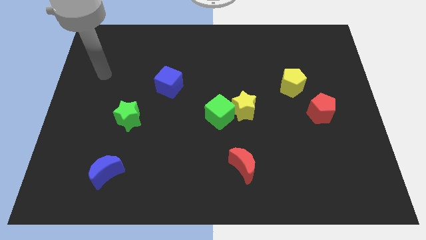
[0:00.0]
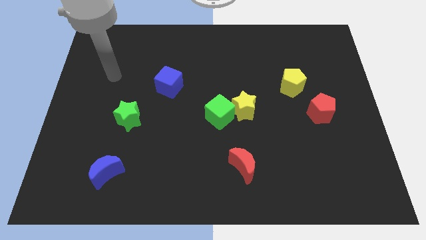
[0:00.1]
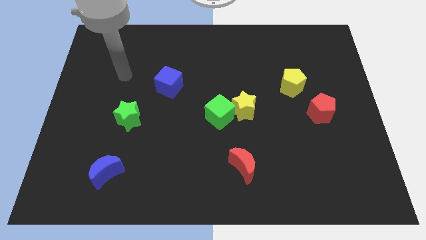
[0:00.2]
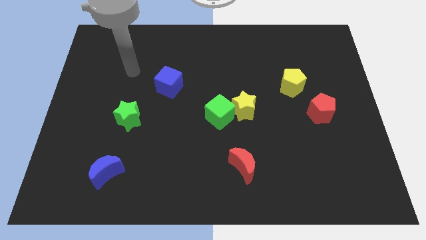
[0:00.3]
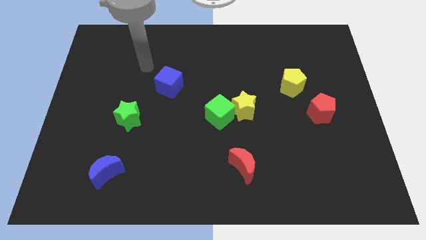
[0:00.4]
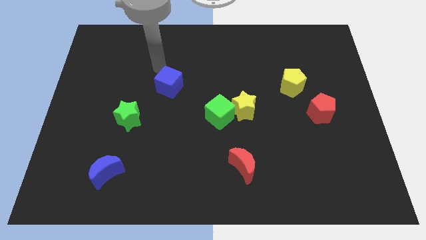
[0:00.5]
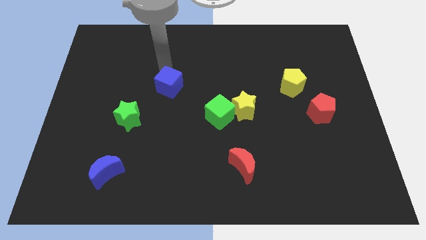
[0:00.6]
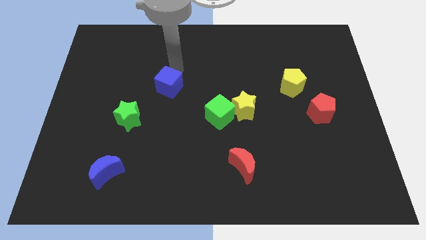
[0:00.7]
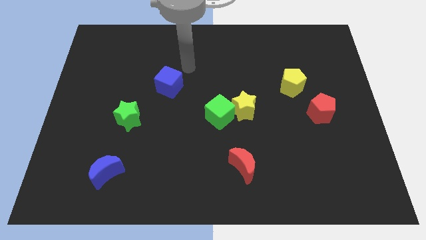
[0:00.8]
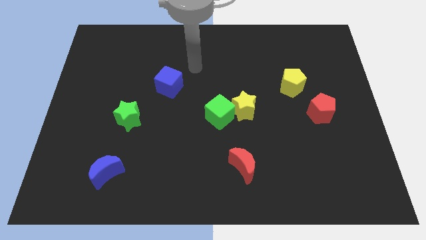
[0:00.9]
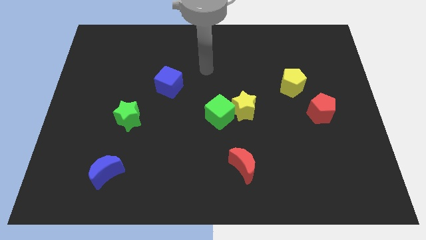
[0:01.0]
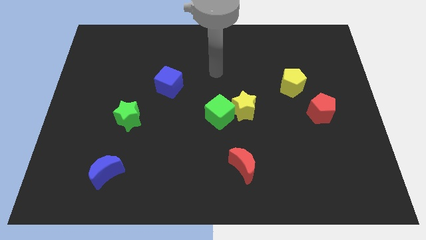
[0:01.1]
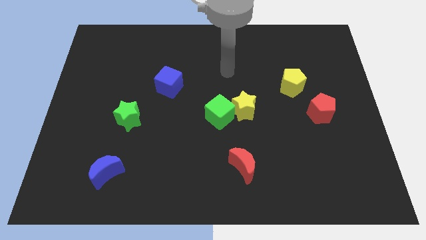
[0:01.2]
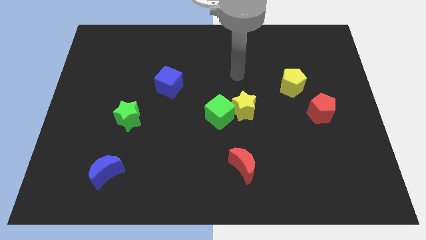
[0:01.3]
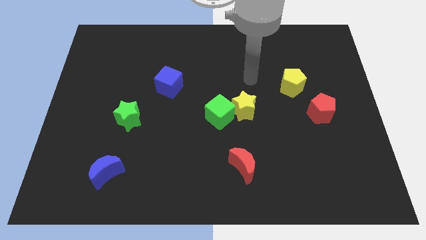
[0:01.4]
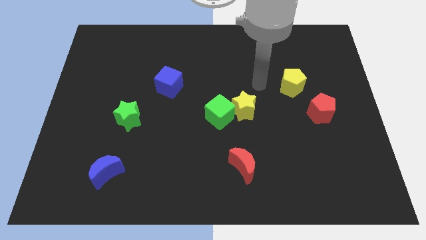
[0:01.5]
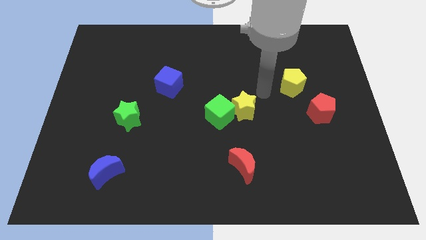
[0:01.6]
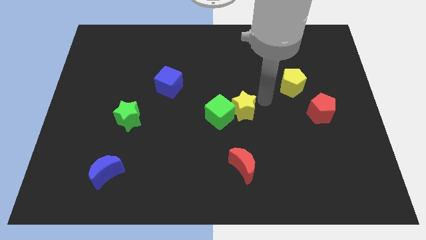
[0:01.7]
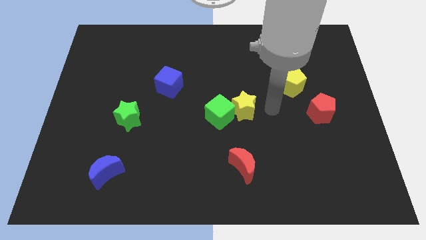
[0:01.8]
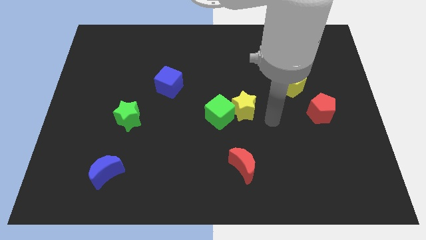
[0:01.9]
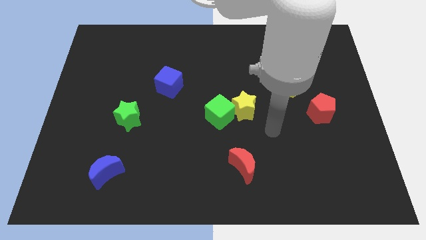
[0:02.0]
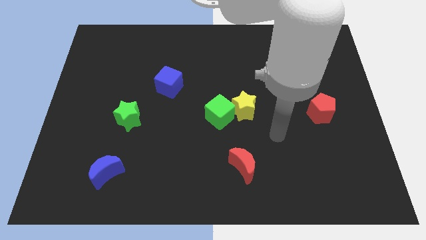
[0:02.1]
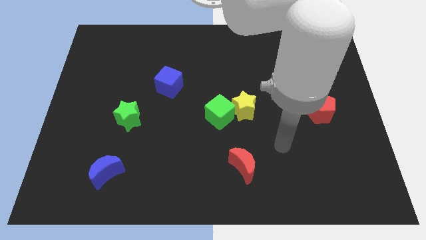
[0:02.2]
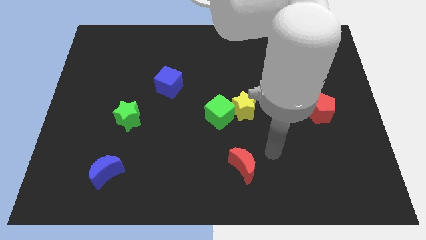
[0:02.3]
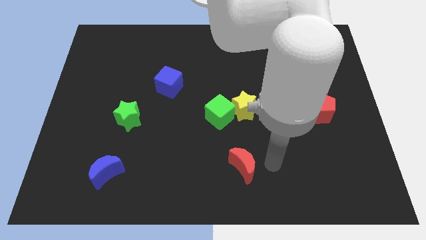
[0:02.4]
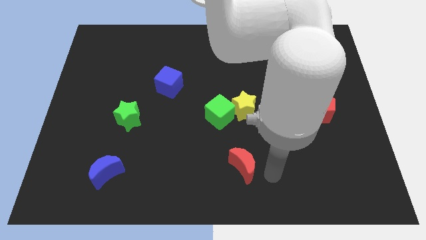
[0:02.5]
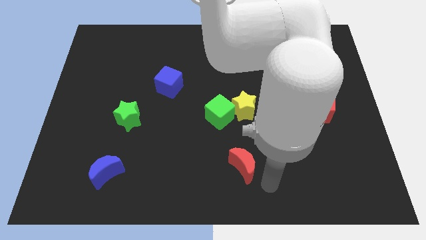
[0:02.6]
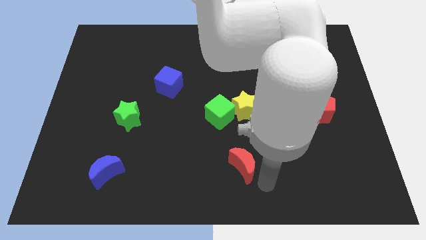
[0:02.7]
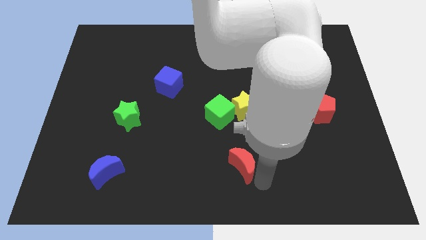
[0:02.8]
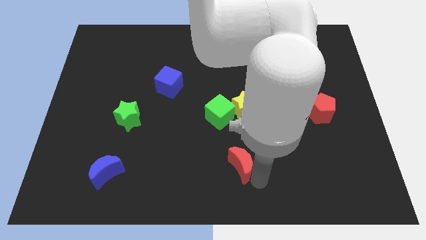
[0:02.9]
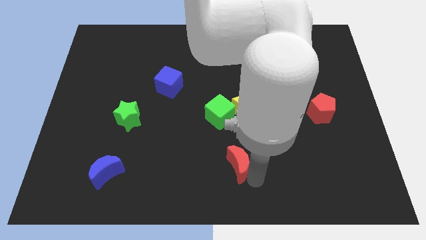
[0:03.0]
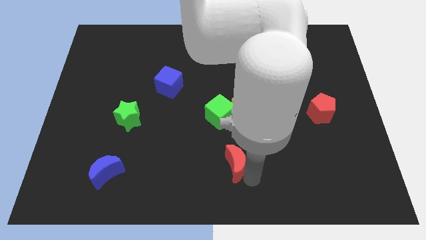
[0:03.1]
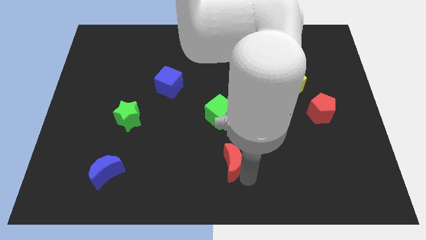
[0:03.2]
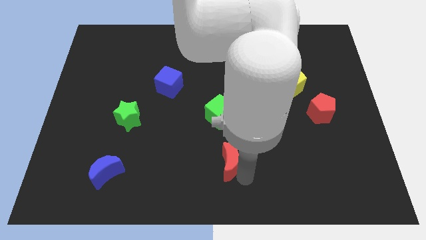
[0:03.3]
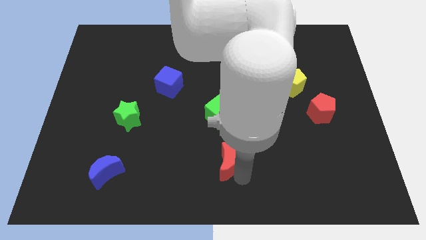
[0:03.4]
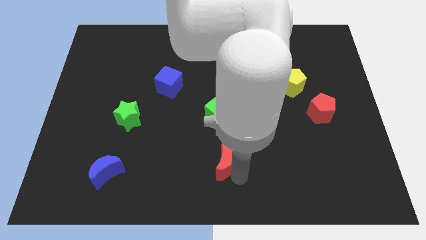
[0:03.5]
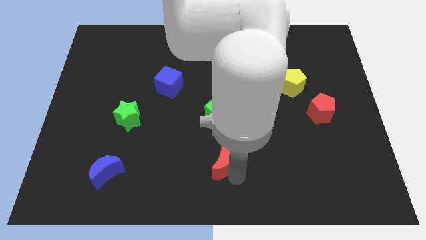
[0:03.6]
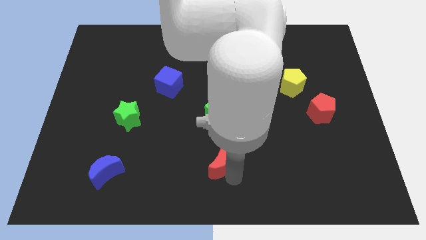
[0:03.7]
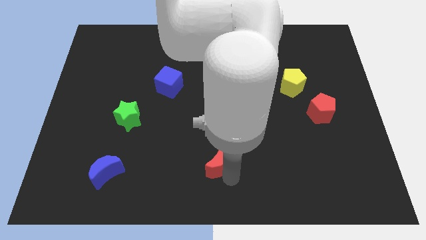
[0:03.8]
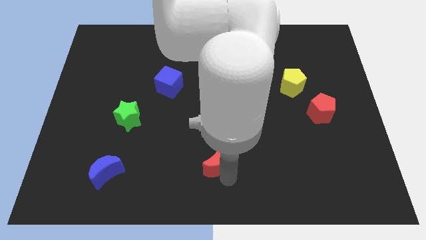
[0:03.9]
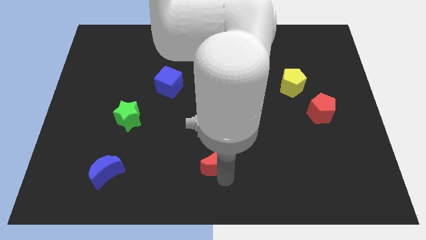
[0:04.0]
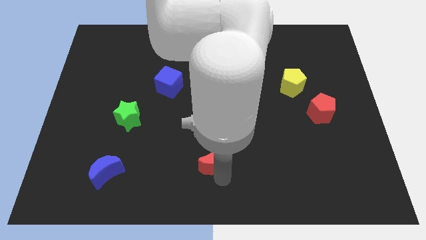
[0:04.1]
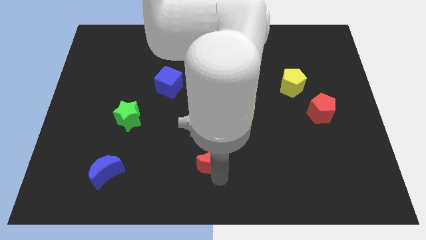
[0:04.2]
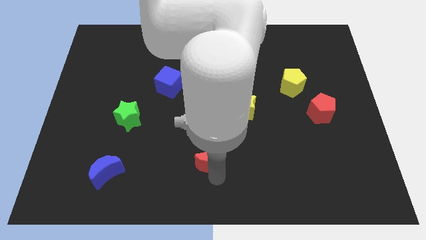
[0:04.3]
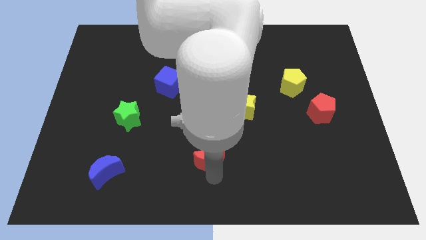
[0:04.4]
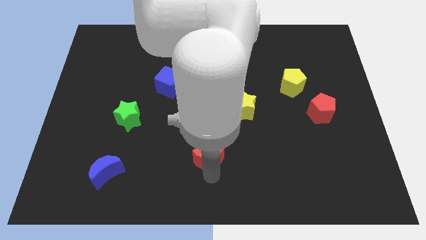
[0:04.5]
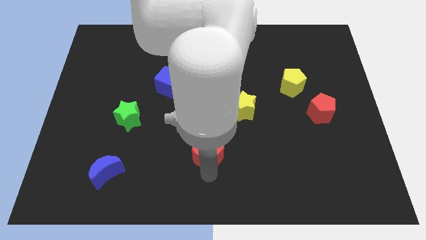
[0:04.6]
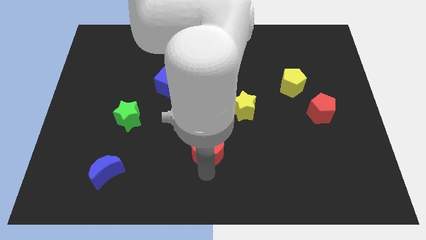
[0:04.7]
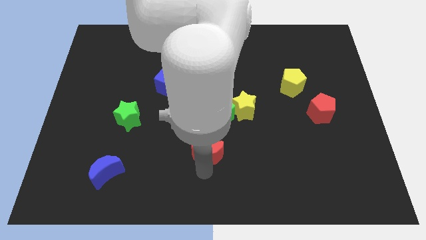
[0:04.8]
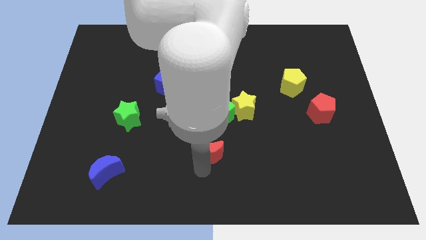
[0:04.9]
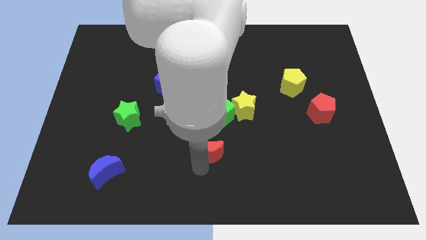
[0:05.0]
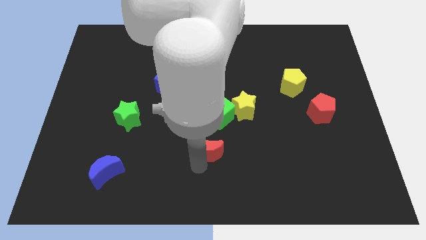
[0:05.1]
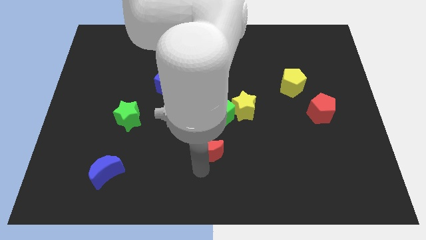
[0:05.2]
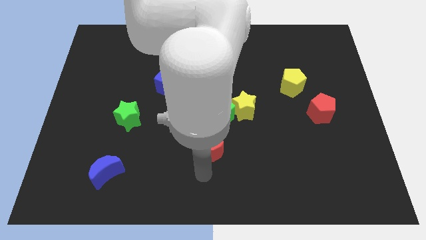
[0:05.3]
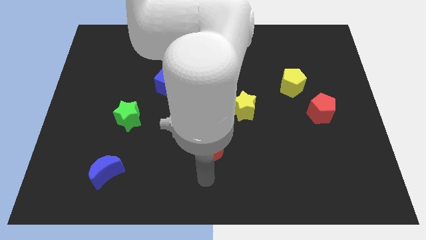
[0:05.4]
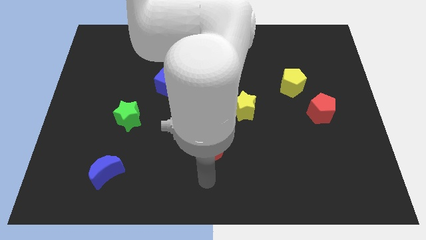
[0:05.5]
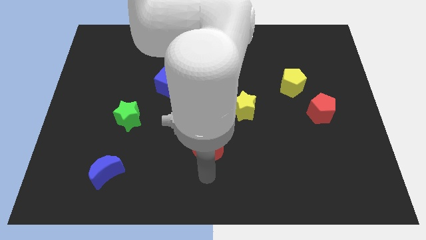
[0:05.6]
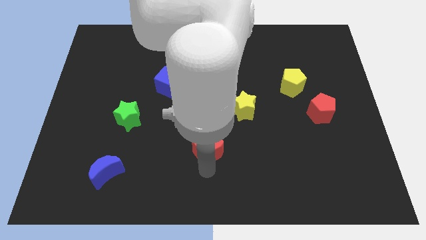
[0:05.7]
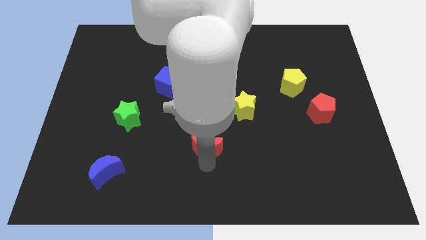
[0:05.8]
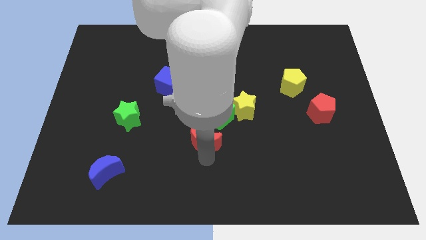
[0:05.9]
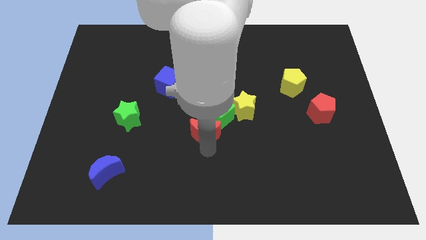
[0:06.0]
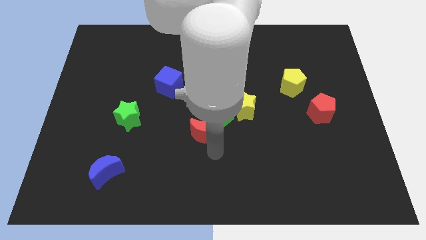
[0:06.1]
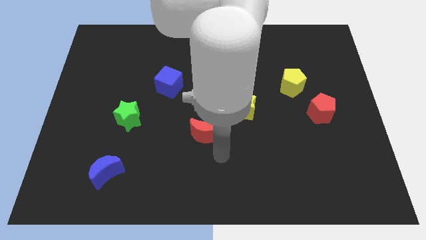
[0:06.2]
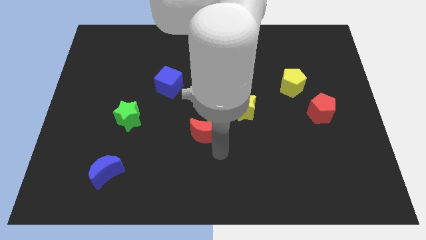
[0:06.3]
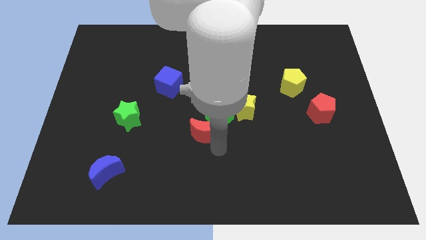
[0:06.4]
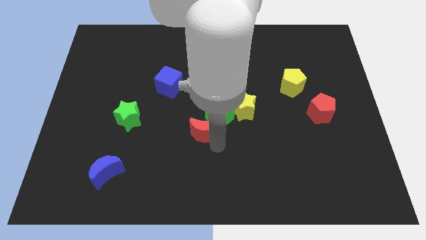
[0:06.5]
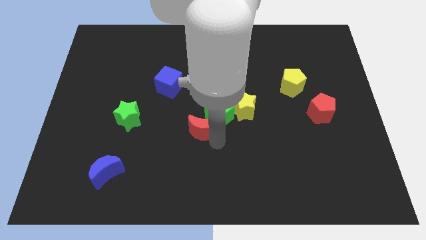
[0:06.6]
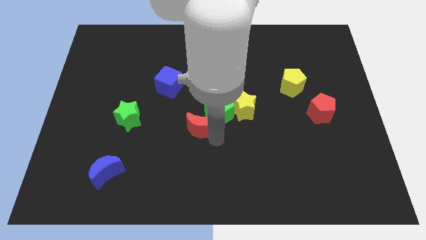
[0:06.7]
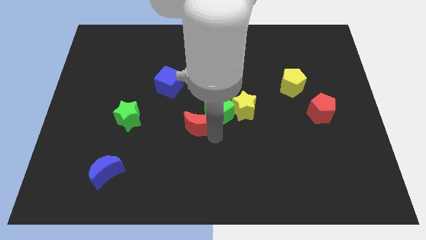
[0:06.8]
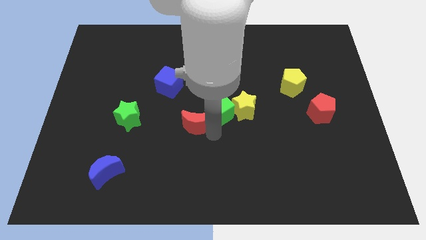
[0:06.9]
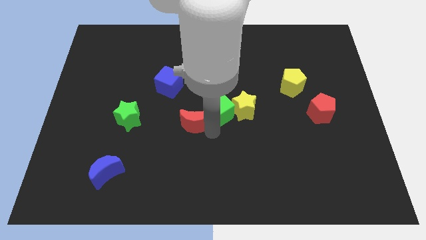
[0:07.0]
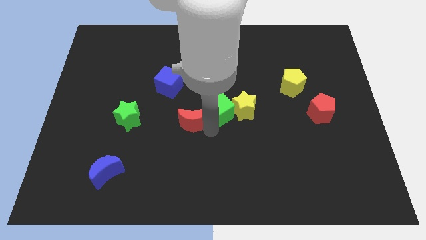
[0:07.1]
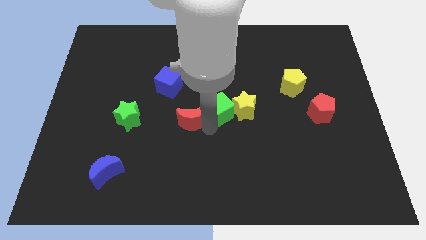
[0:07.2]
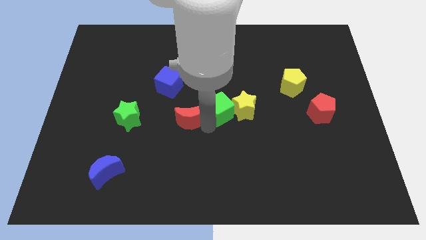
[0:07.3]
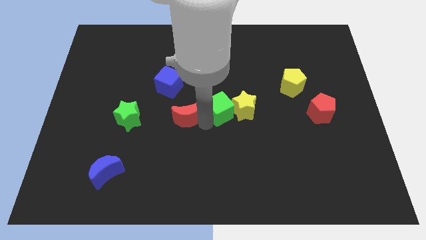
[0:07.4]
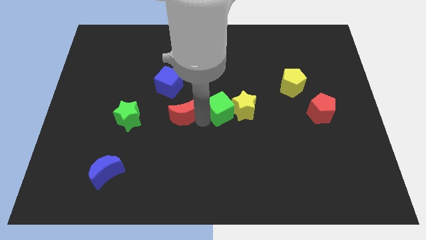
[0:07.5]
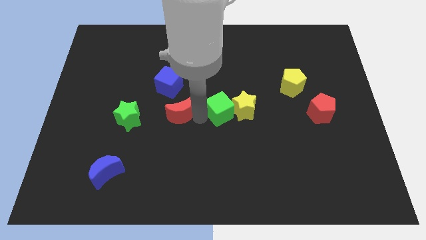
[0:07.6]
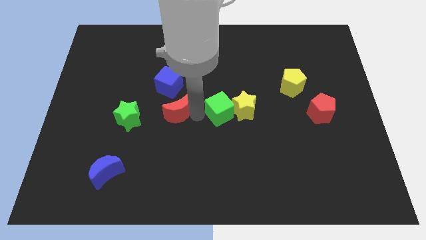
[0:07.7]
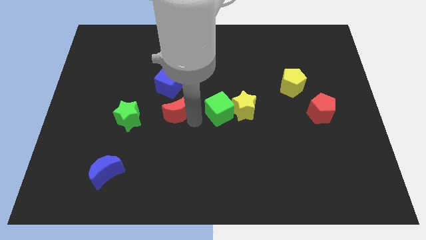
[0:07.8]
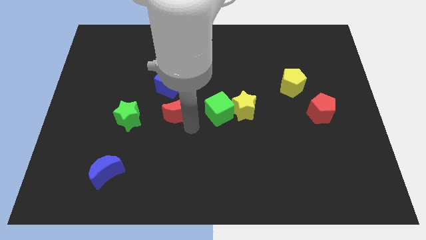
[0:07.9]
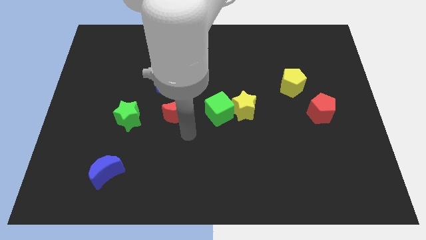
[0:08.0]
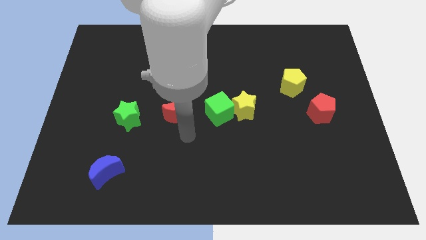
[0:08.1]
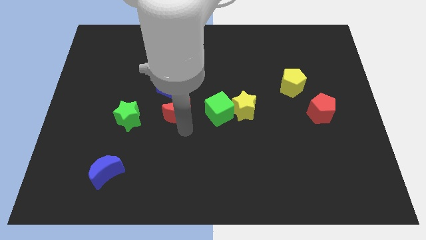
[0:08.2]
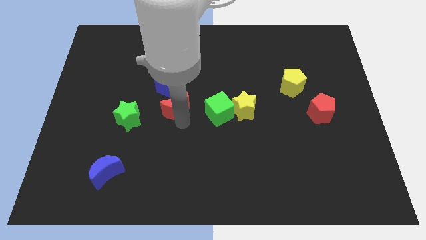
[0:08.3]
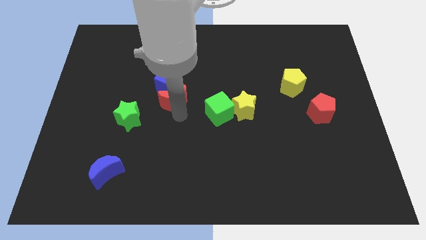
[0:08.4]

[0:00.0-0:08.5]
slide the red moon close to the blue cube
